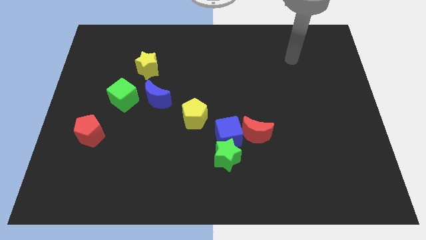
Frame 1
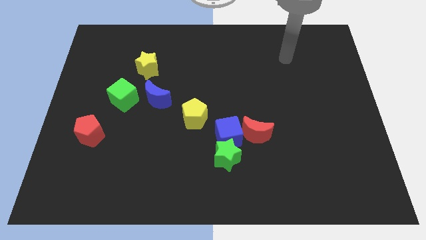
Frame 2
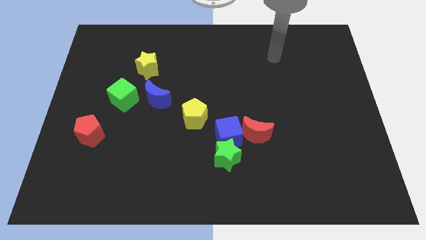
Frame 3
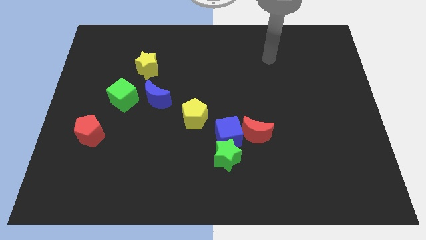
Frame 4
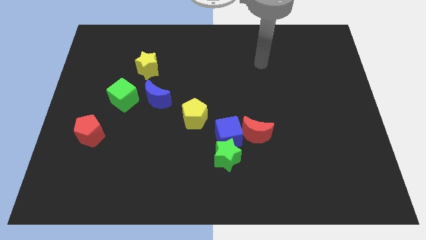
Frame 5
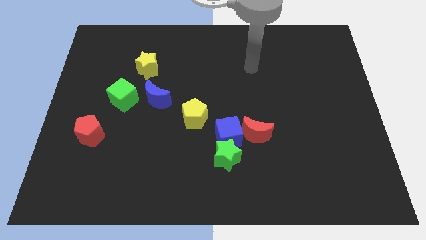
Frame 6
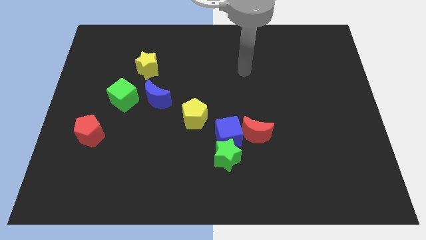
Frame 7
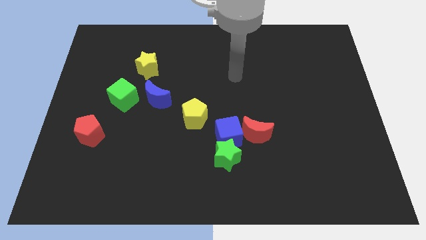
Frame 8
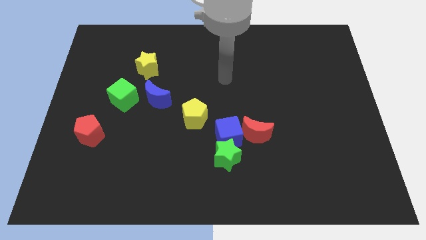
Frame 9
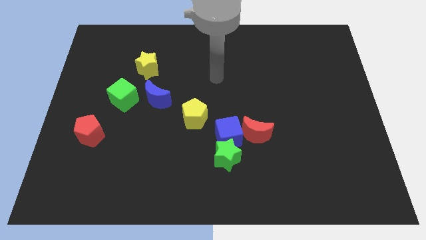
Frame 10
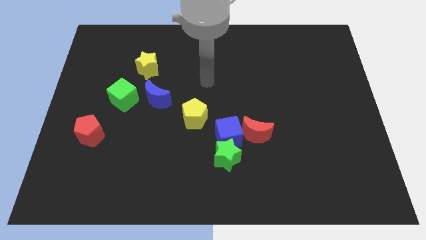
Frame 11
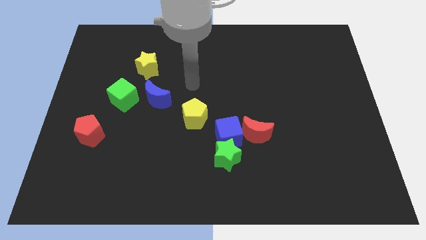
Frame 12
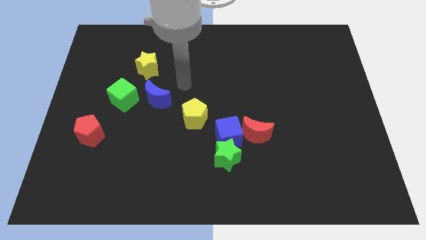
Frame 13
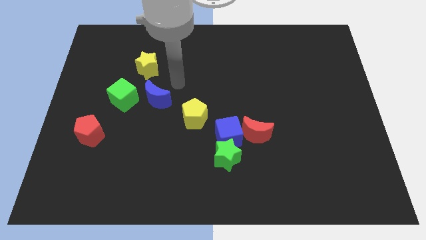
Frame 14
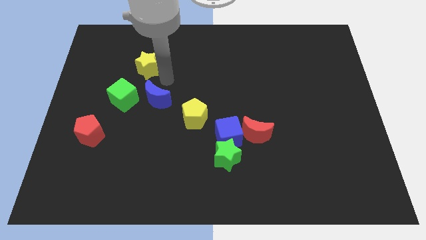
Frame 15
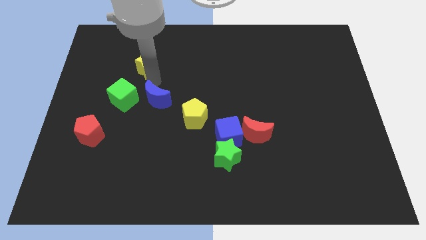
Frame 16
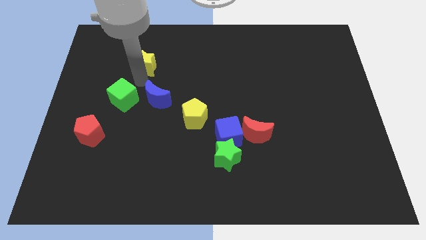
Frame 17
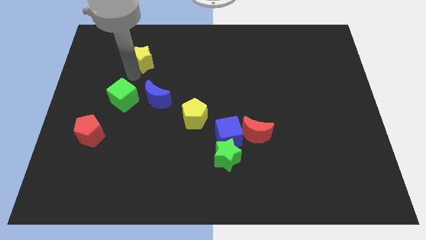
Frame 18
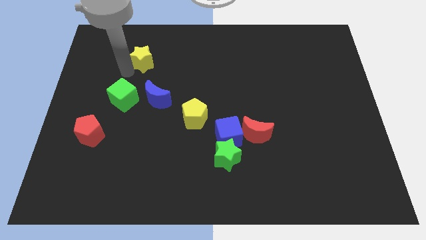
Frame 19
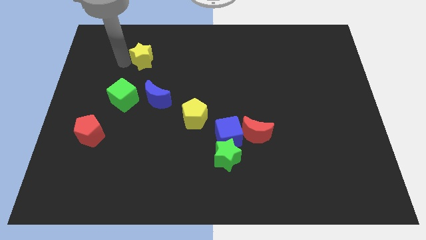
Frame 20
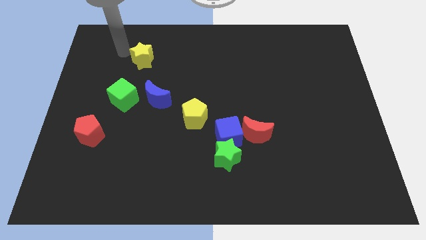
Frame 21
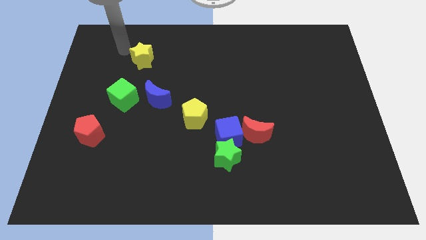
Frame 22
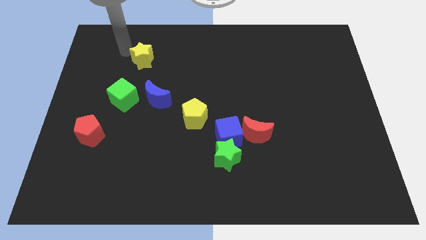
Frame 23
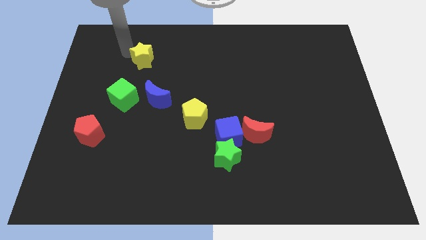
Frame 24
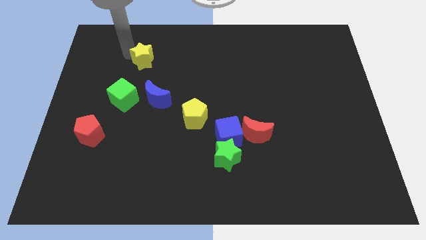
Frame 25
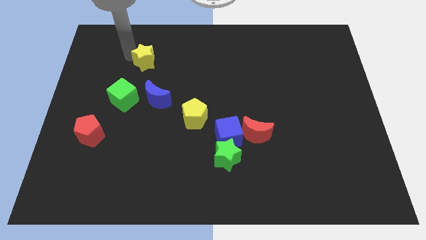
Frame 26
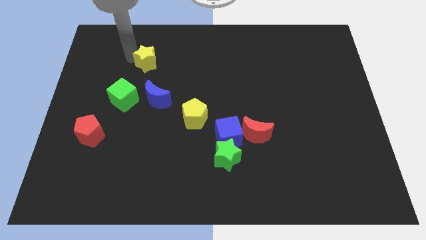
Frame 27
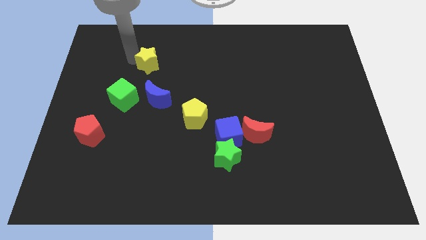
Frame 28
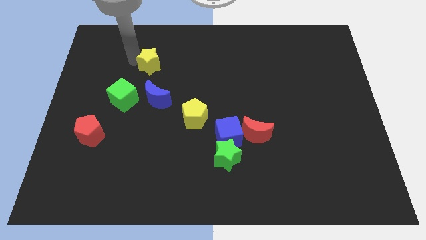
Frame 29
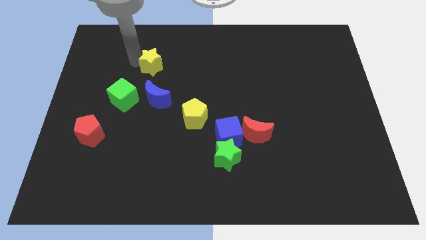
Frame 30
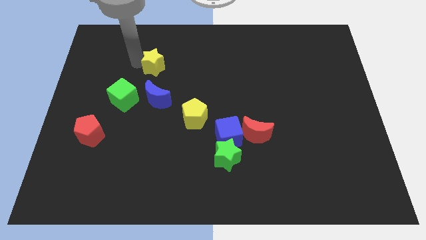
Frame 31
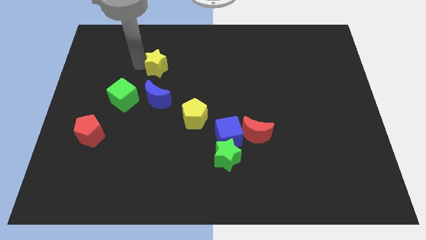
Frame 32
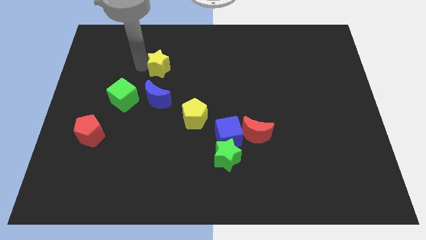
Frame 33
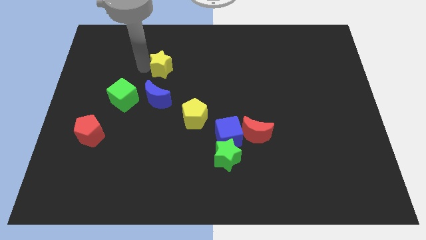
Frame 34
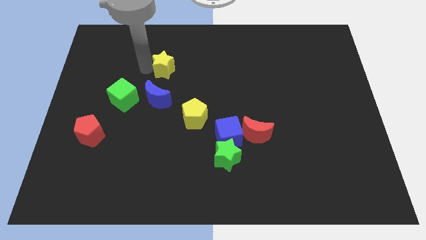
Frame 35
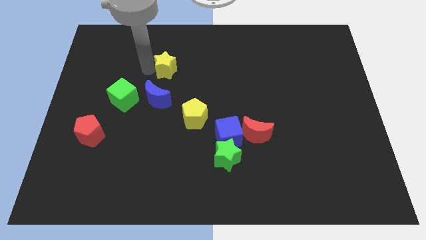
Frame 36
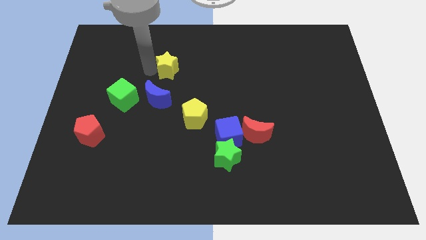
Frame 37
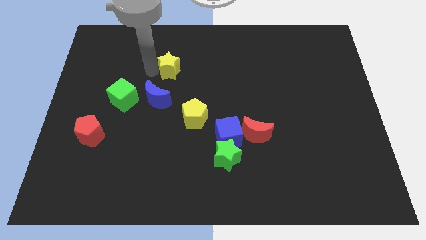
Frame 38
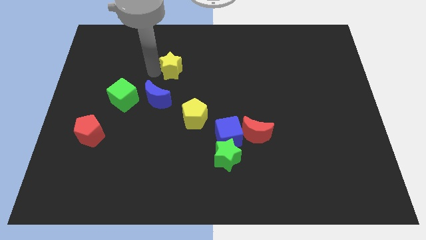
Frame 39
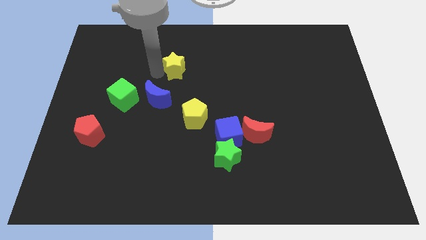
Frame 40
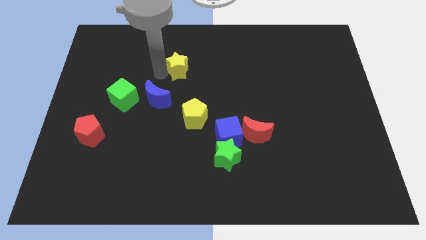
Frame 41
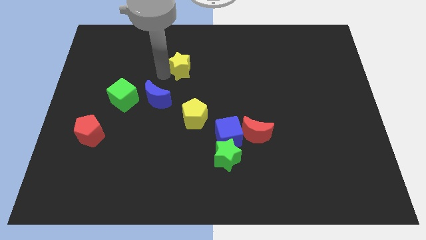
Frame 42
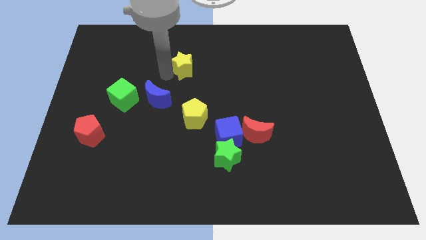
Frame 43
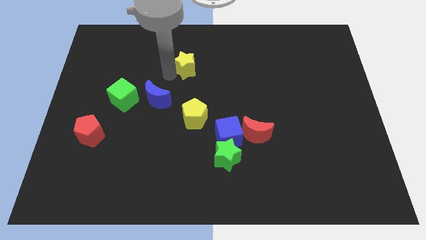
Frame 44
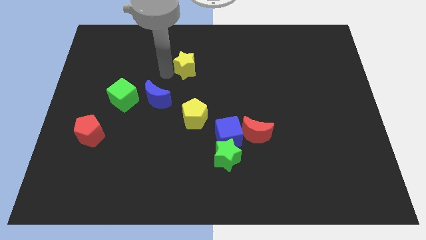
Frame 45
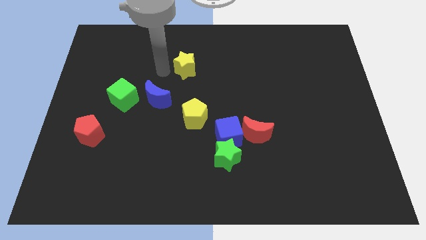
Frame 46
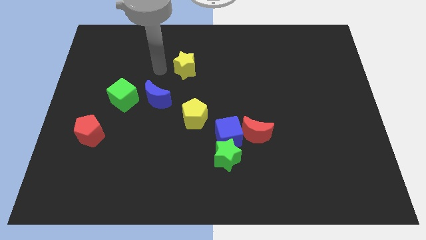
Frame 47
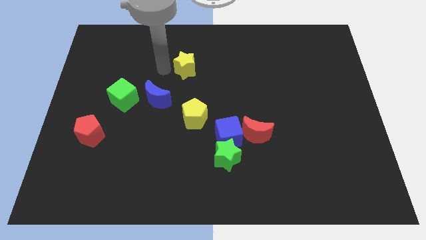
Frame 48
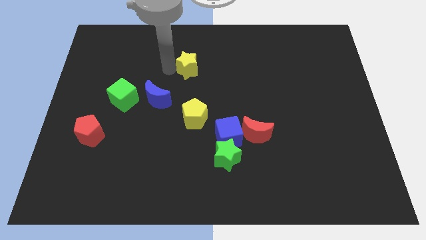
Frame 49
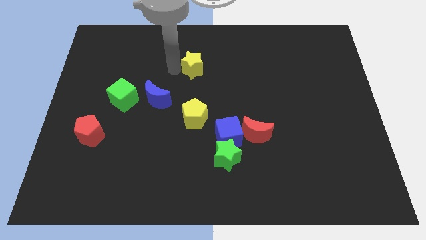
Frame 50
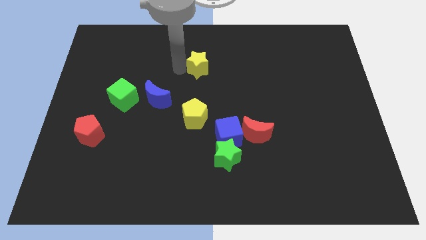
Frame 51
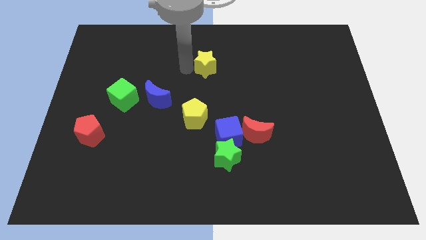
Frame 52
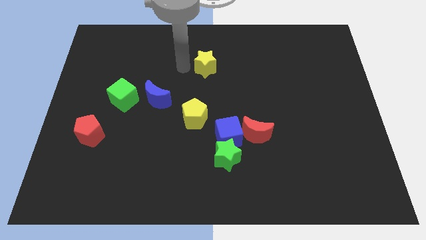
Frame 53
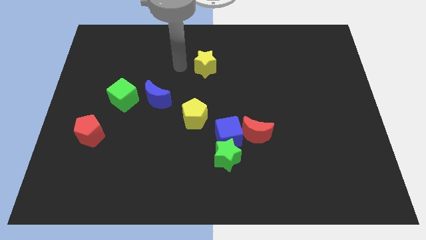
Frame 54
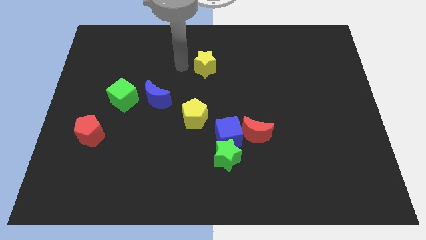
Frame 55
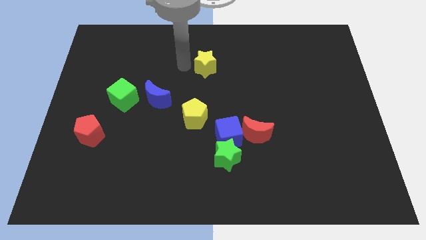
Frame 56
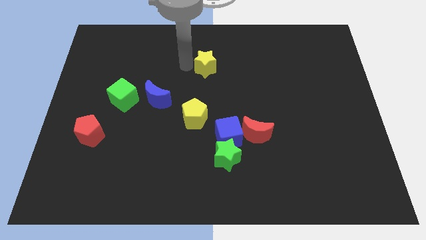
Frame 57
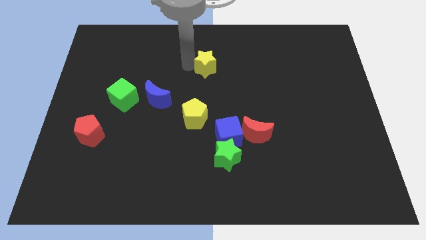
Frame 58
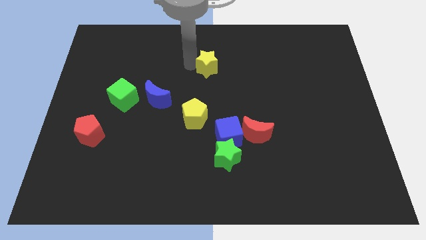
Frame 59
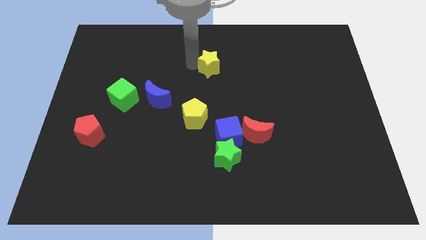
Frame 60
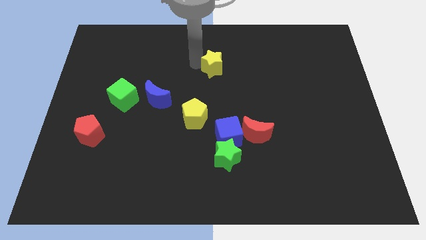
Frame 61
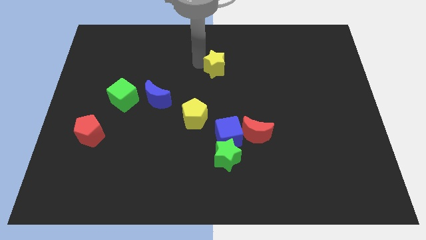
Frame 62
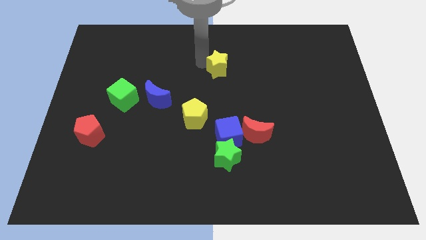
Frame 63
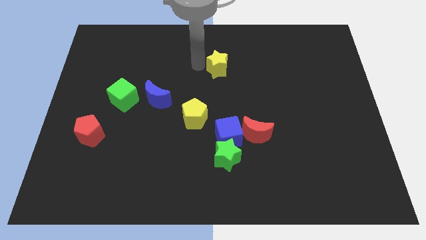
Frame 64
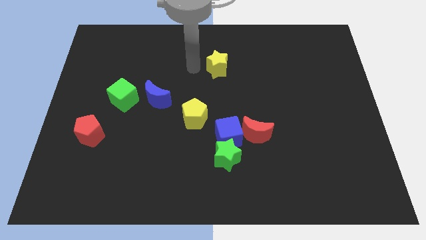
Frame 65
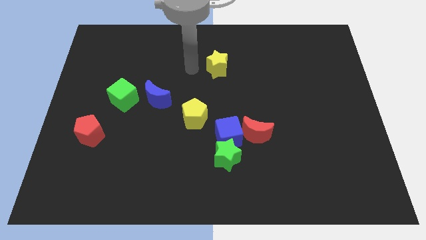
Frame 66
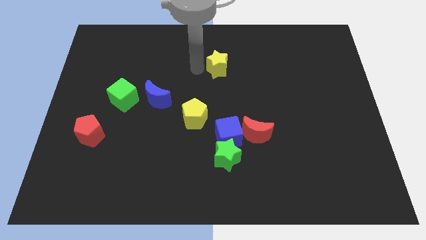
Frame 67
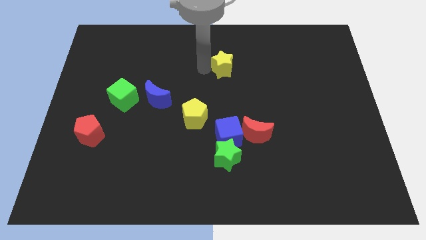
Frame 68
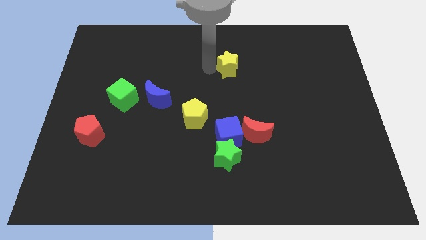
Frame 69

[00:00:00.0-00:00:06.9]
push the yellow star to the right

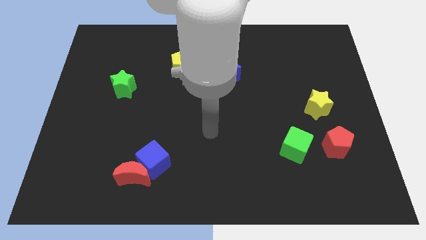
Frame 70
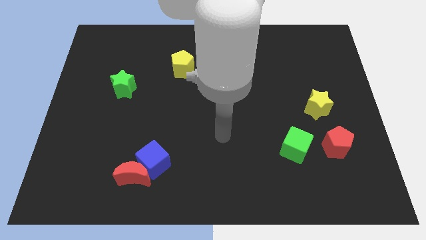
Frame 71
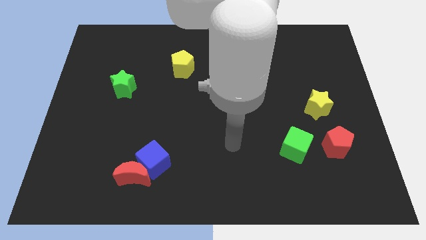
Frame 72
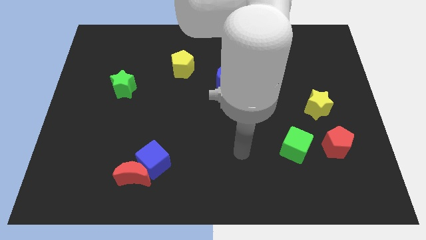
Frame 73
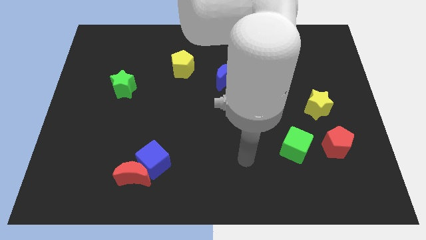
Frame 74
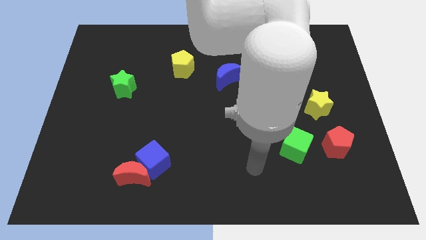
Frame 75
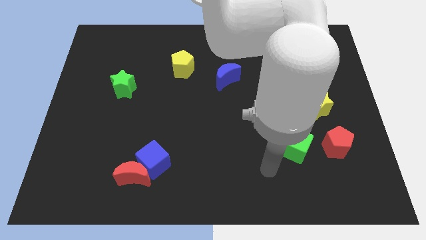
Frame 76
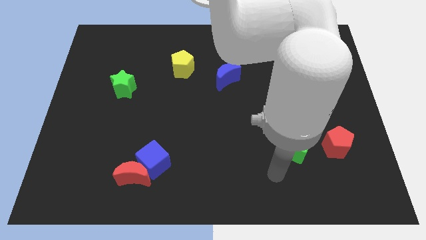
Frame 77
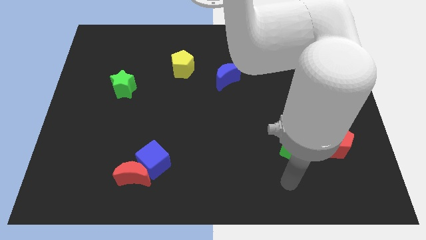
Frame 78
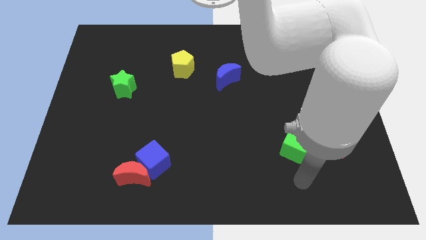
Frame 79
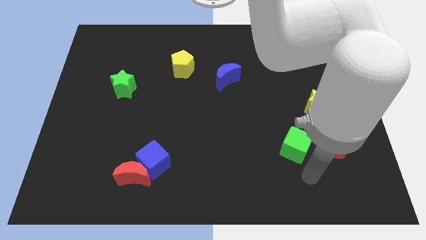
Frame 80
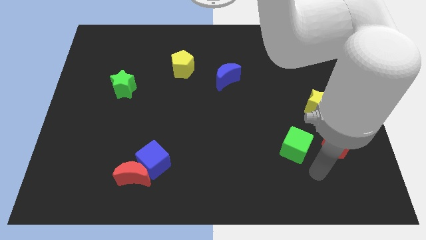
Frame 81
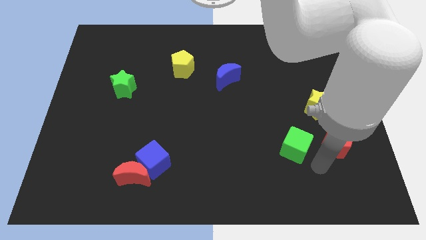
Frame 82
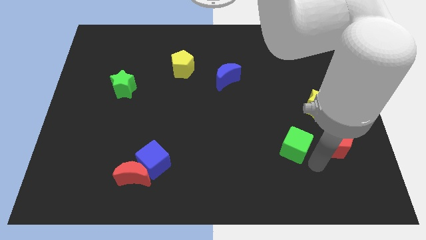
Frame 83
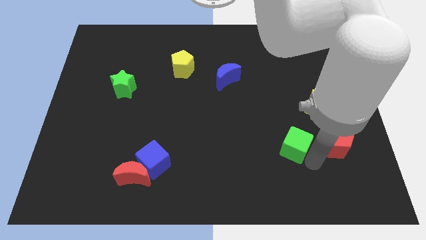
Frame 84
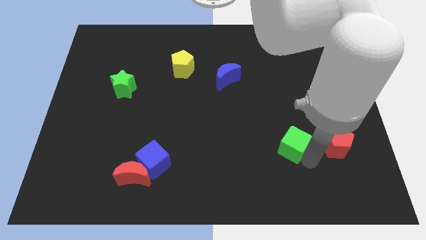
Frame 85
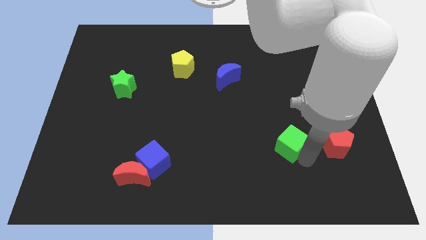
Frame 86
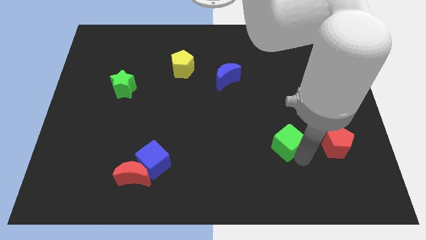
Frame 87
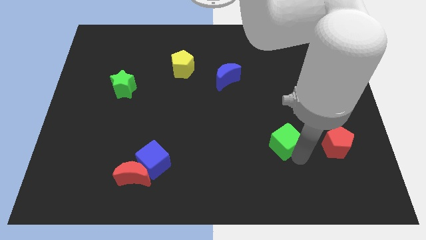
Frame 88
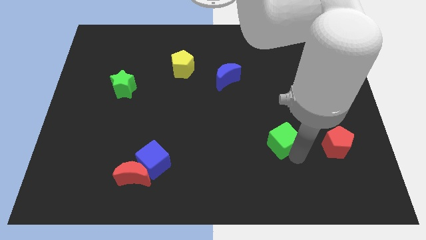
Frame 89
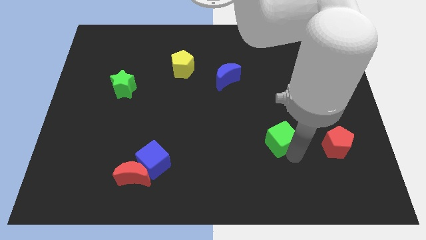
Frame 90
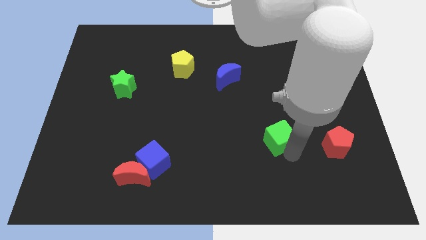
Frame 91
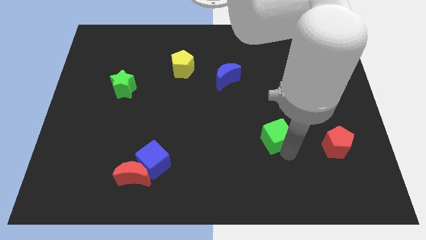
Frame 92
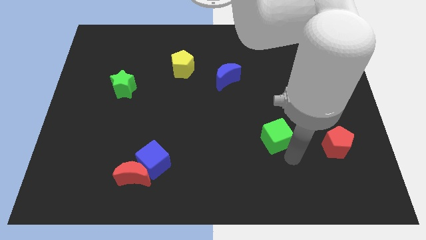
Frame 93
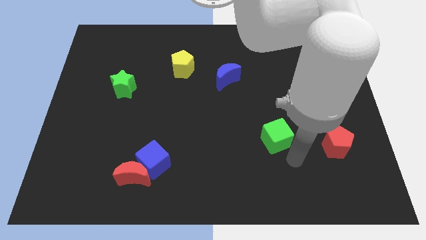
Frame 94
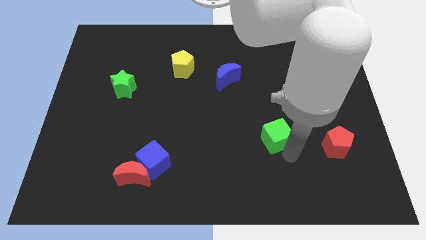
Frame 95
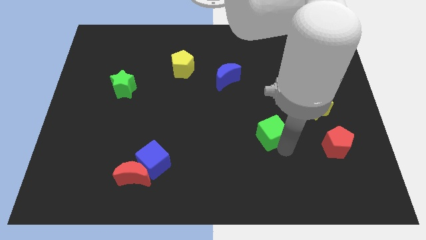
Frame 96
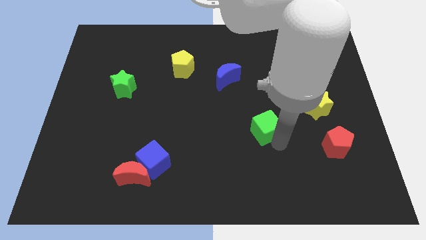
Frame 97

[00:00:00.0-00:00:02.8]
slide the green cube somewhat upwards and left
